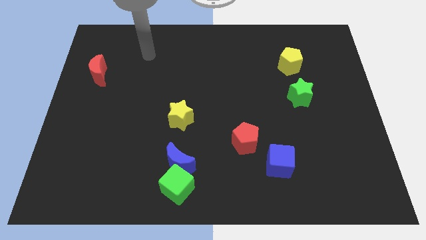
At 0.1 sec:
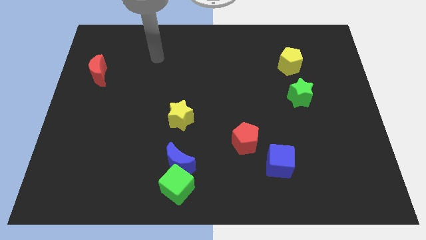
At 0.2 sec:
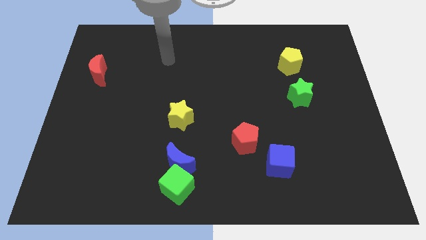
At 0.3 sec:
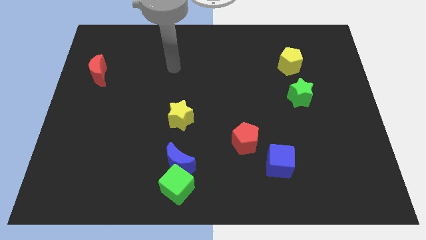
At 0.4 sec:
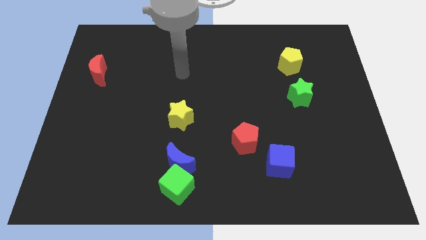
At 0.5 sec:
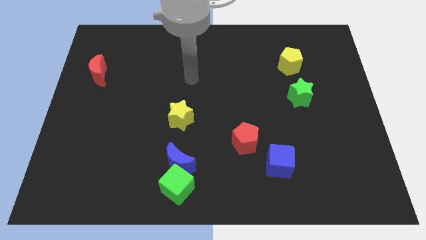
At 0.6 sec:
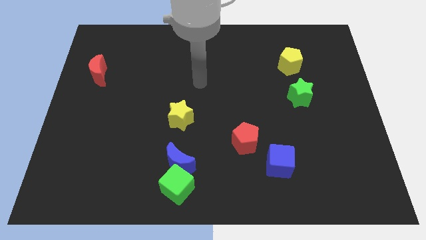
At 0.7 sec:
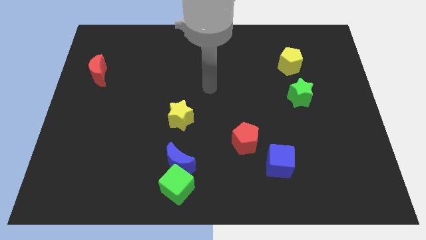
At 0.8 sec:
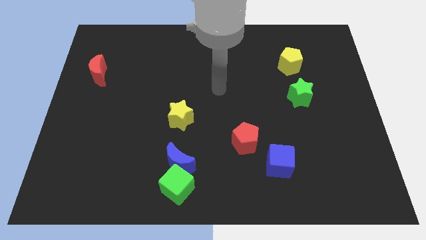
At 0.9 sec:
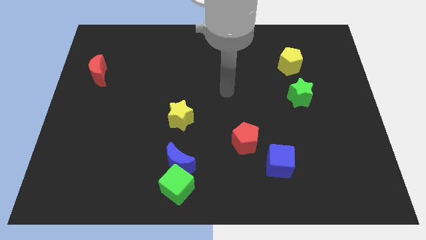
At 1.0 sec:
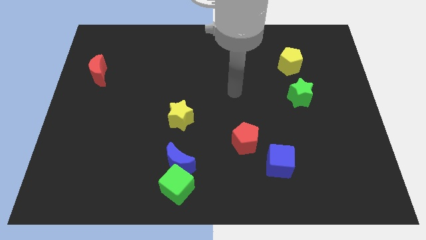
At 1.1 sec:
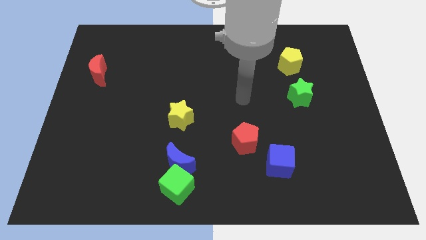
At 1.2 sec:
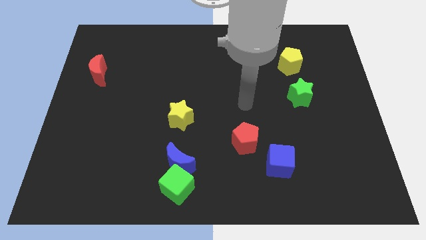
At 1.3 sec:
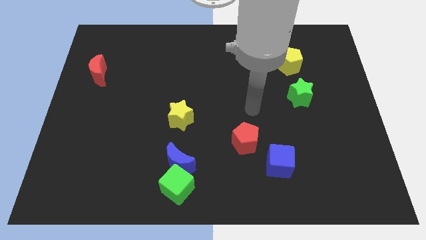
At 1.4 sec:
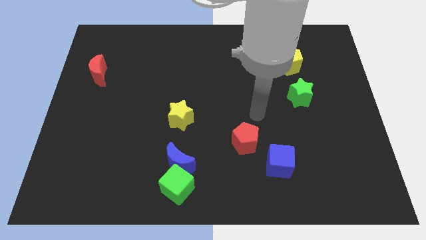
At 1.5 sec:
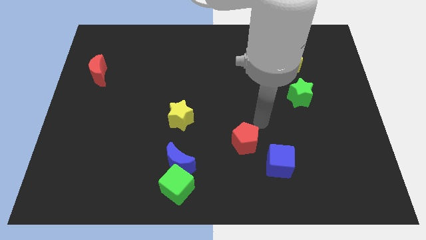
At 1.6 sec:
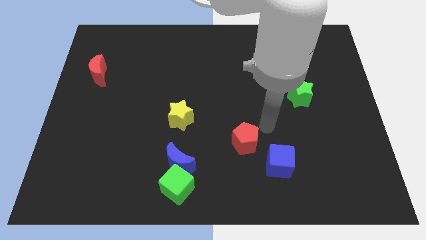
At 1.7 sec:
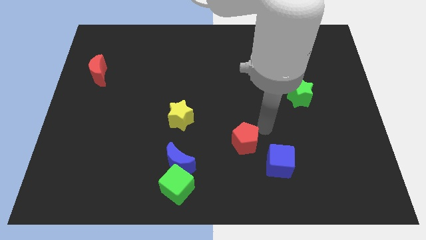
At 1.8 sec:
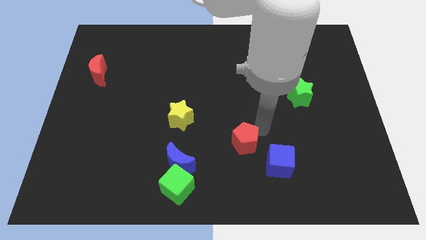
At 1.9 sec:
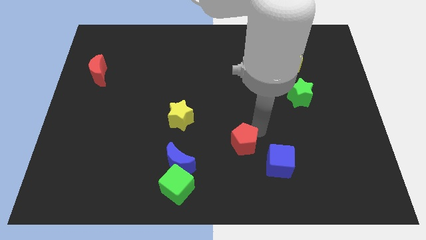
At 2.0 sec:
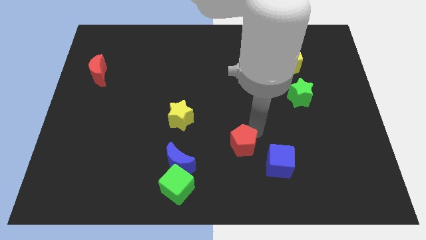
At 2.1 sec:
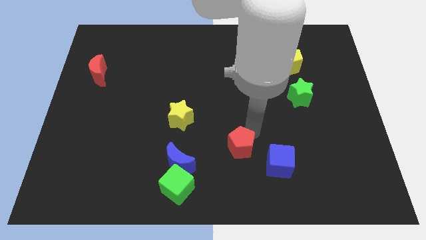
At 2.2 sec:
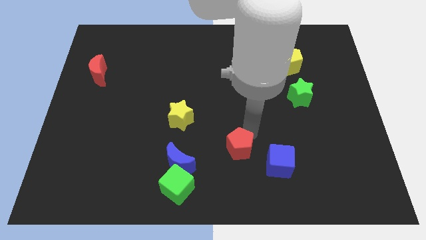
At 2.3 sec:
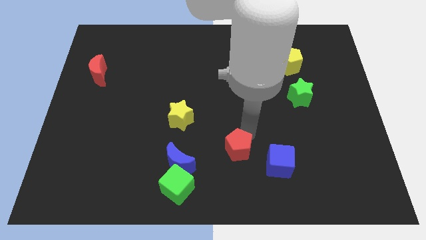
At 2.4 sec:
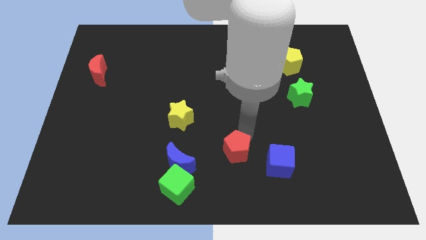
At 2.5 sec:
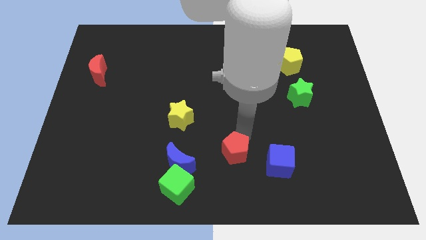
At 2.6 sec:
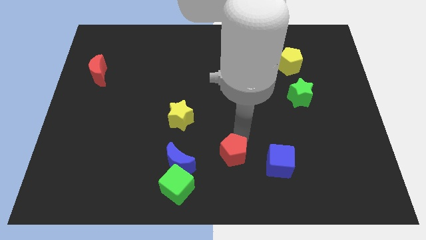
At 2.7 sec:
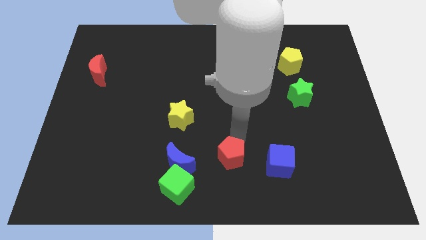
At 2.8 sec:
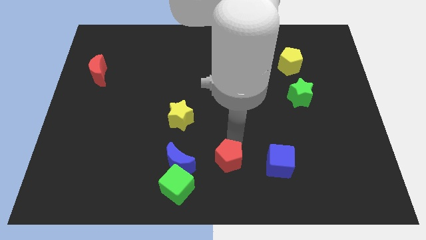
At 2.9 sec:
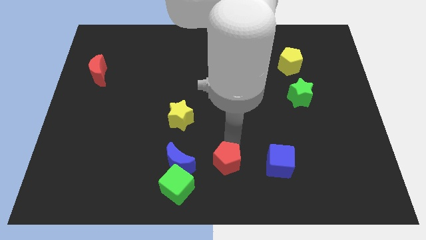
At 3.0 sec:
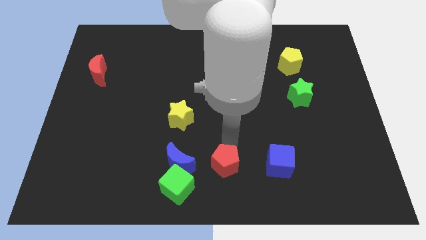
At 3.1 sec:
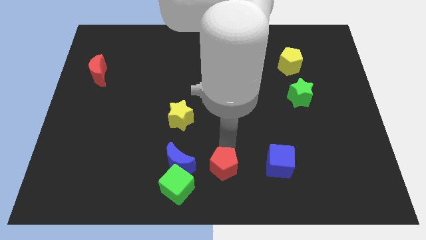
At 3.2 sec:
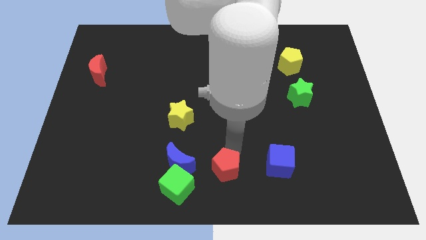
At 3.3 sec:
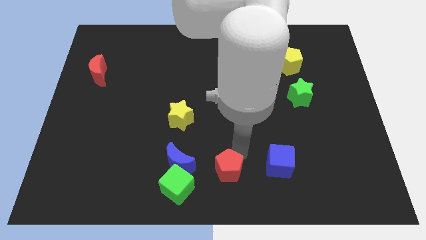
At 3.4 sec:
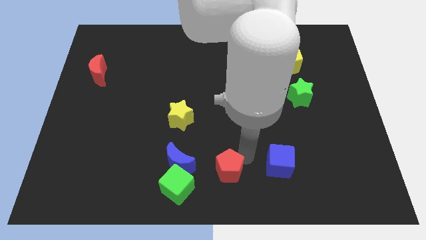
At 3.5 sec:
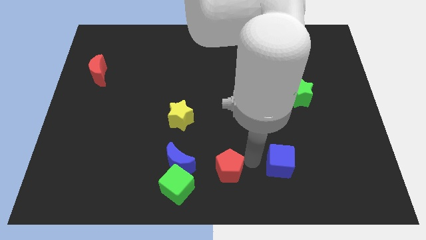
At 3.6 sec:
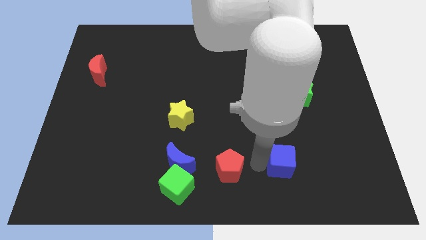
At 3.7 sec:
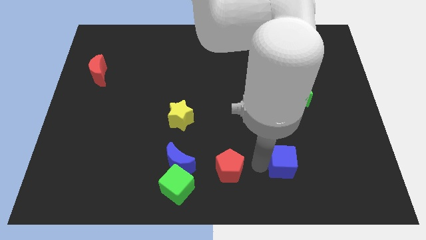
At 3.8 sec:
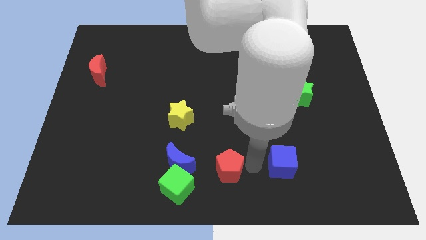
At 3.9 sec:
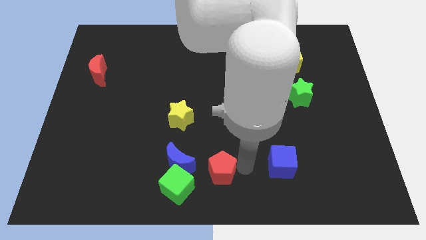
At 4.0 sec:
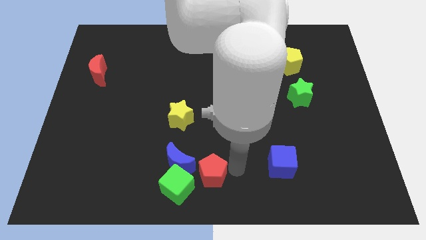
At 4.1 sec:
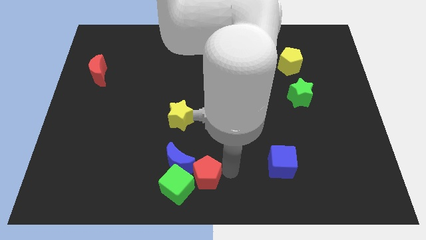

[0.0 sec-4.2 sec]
push the red pentagon to the green cube

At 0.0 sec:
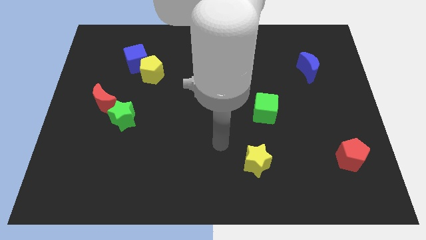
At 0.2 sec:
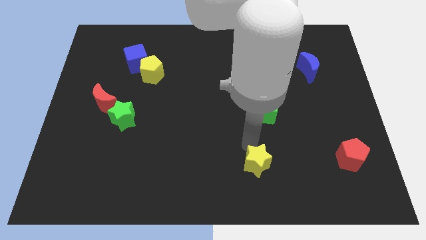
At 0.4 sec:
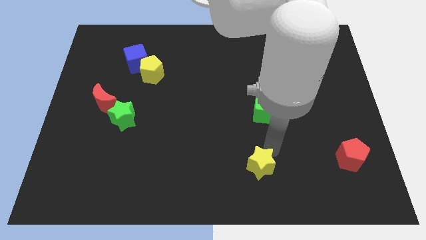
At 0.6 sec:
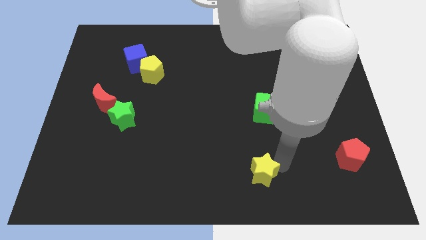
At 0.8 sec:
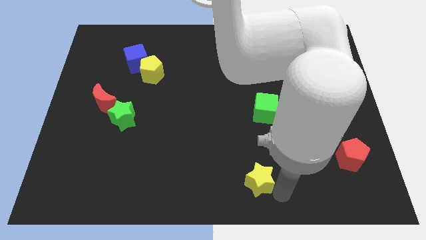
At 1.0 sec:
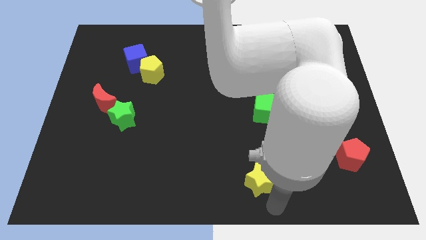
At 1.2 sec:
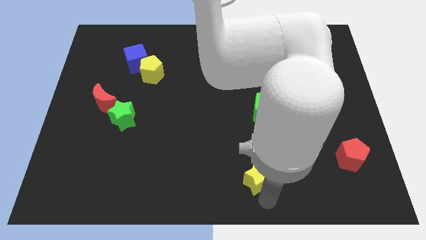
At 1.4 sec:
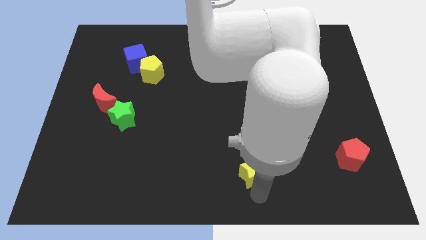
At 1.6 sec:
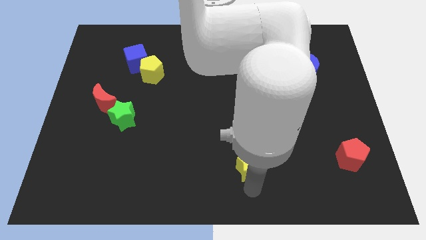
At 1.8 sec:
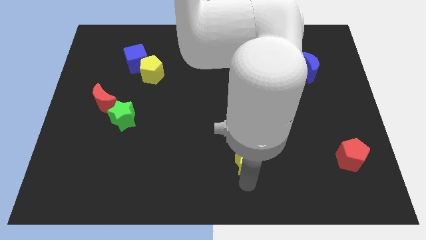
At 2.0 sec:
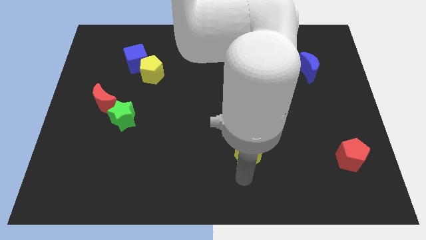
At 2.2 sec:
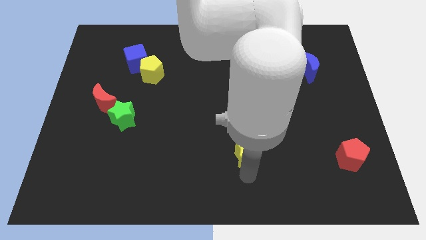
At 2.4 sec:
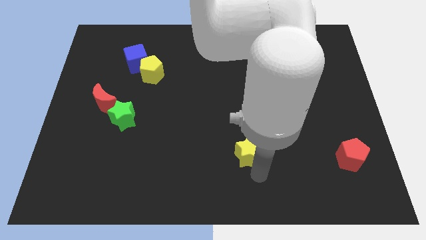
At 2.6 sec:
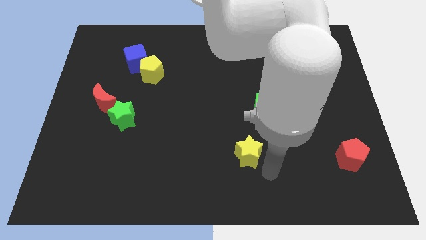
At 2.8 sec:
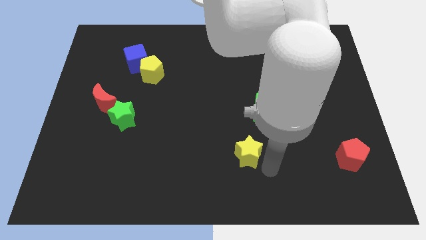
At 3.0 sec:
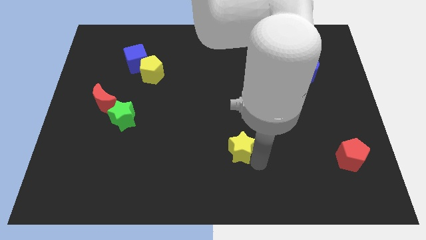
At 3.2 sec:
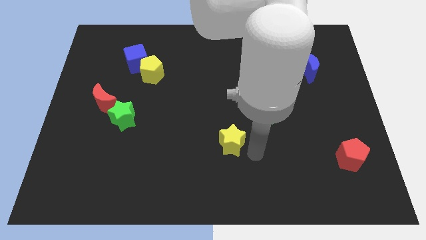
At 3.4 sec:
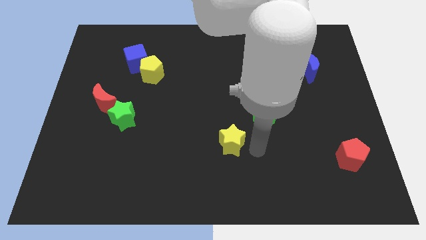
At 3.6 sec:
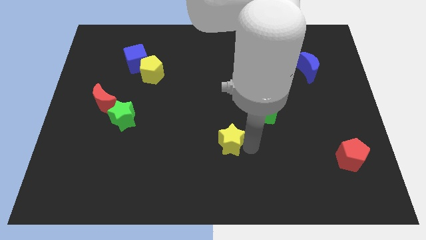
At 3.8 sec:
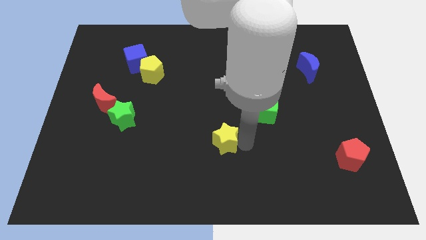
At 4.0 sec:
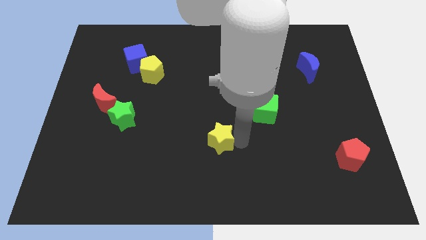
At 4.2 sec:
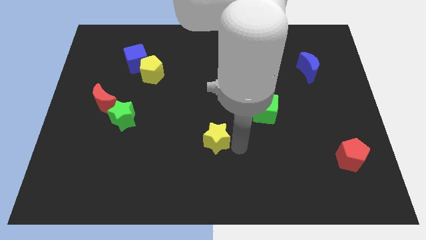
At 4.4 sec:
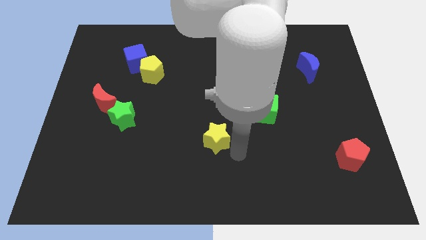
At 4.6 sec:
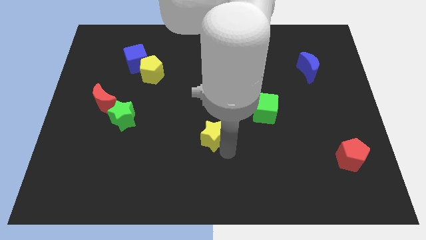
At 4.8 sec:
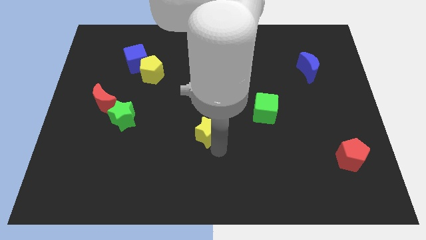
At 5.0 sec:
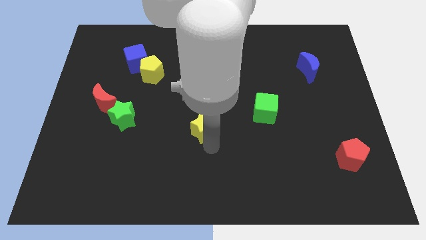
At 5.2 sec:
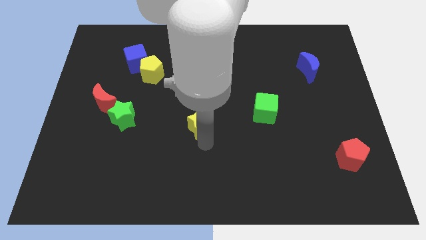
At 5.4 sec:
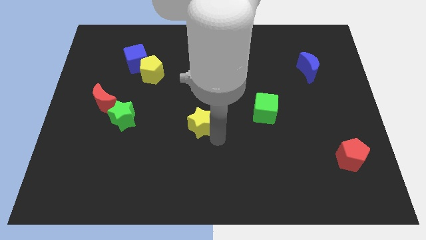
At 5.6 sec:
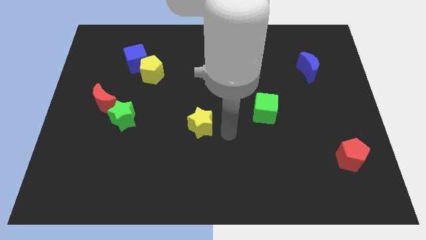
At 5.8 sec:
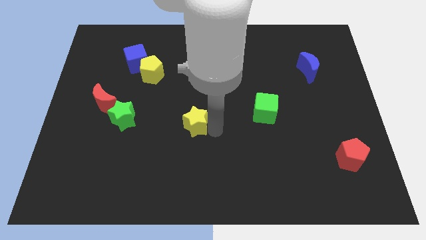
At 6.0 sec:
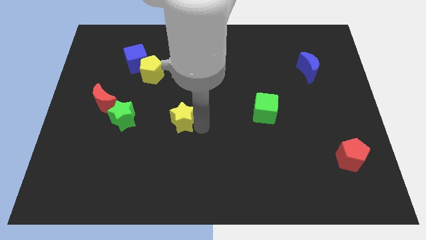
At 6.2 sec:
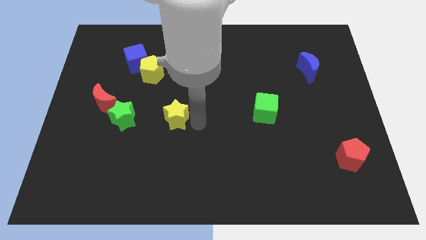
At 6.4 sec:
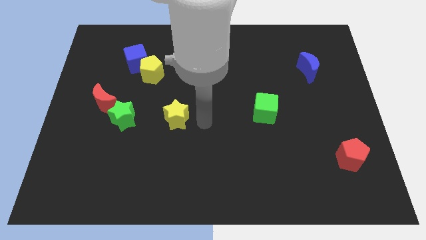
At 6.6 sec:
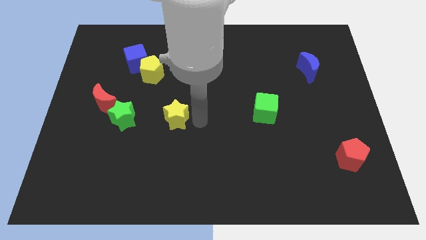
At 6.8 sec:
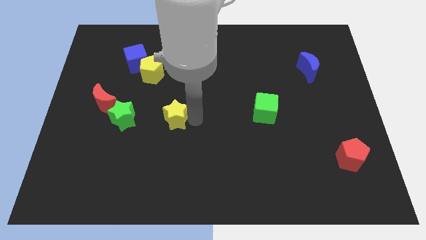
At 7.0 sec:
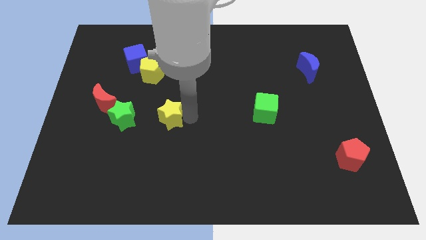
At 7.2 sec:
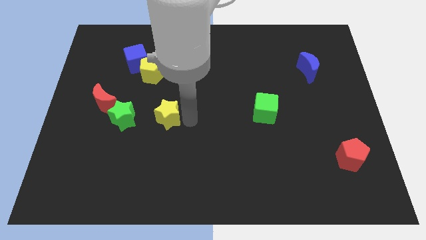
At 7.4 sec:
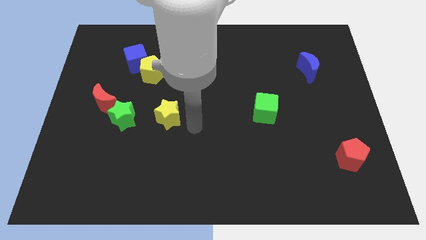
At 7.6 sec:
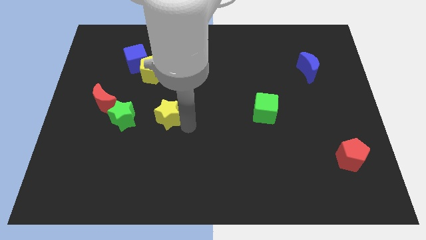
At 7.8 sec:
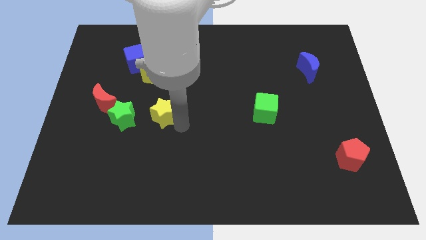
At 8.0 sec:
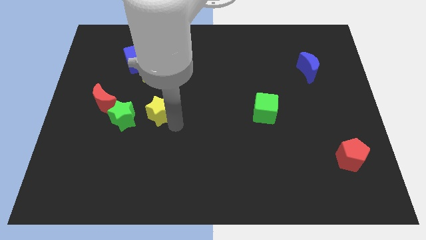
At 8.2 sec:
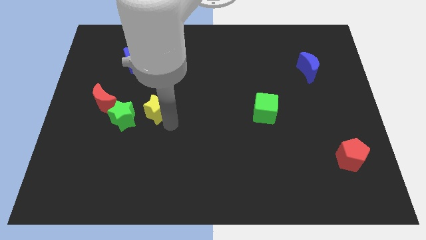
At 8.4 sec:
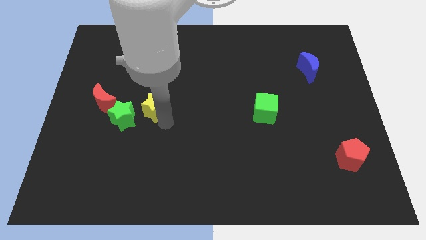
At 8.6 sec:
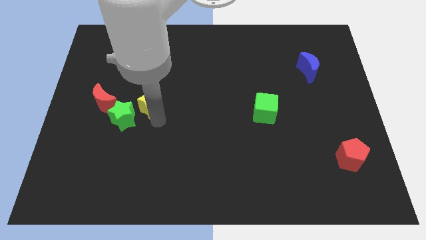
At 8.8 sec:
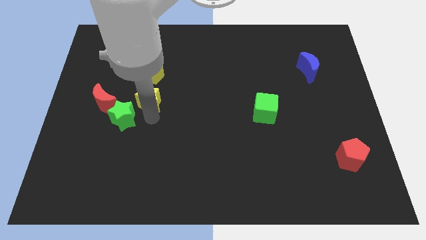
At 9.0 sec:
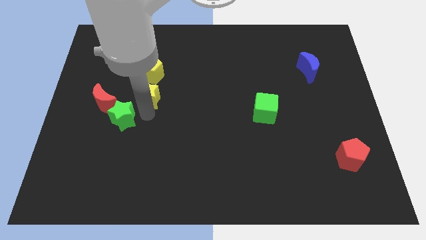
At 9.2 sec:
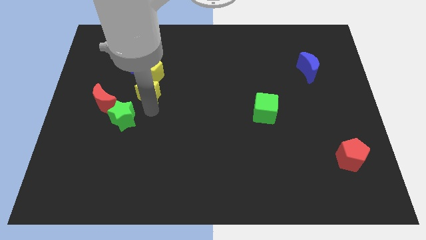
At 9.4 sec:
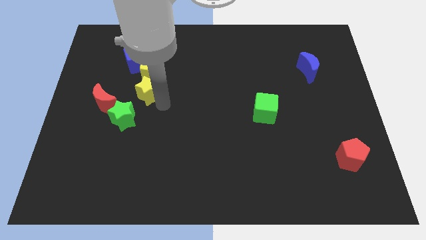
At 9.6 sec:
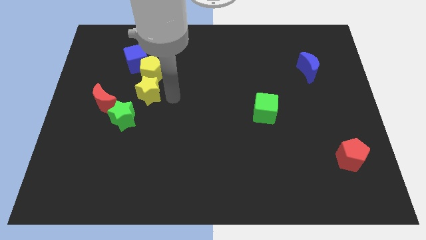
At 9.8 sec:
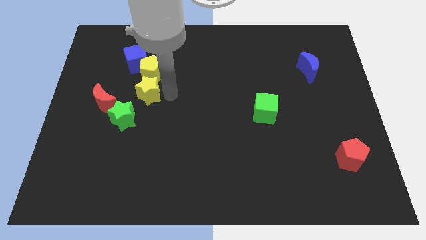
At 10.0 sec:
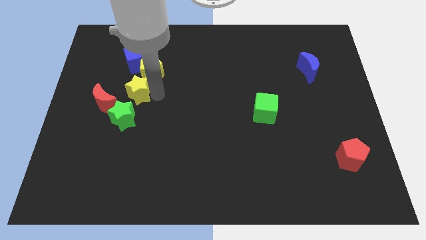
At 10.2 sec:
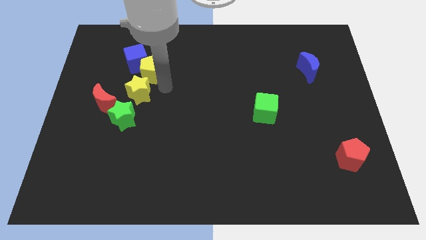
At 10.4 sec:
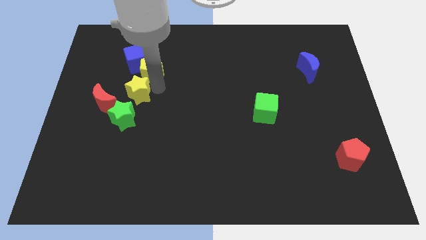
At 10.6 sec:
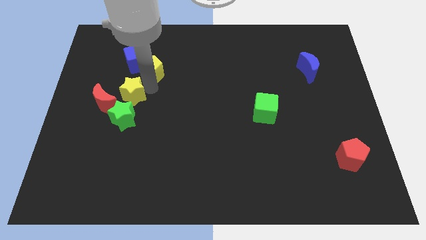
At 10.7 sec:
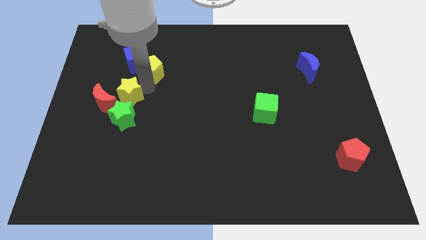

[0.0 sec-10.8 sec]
put the yellow star towards the red moon
